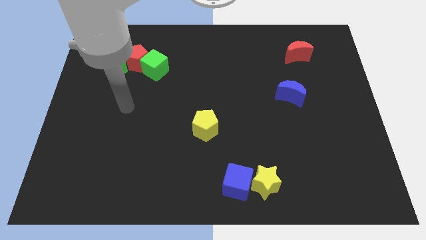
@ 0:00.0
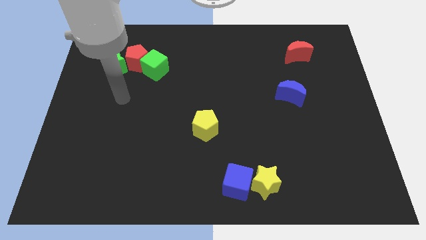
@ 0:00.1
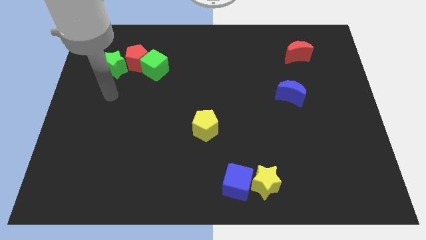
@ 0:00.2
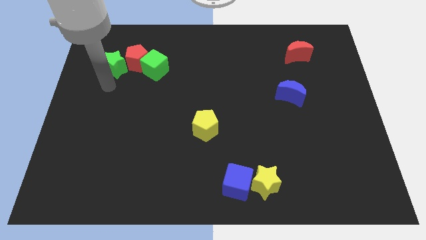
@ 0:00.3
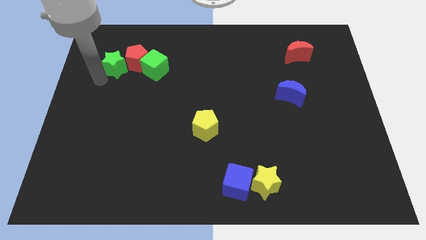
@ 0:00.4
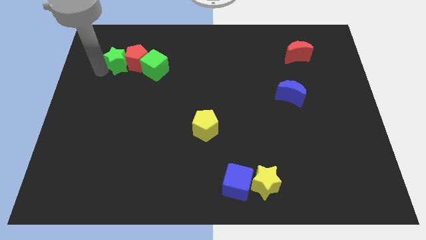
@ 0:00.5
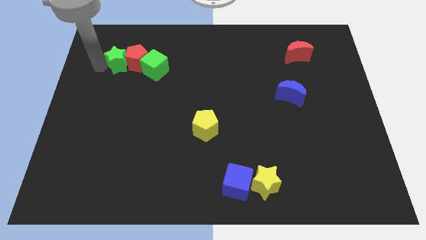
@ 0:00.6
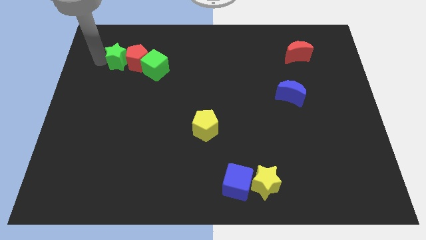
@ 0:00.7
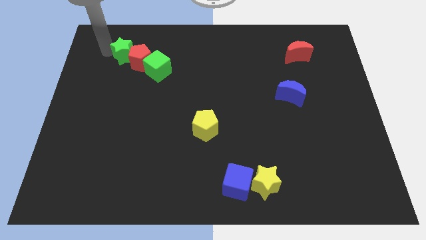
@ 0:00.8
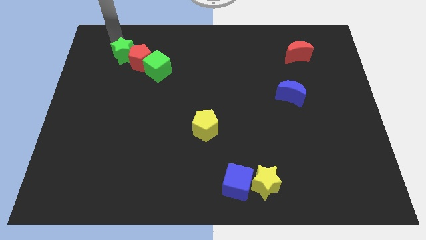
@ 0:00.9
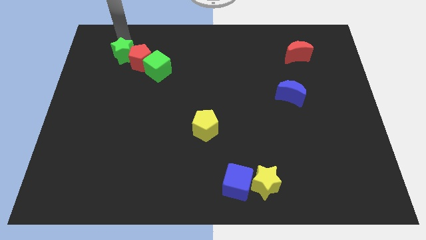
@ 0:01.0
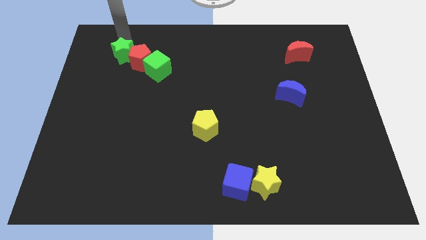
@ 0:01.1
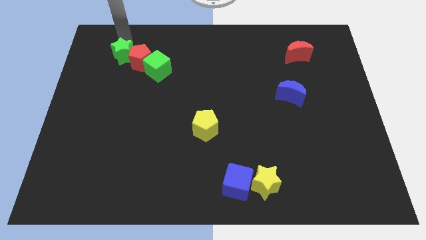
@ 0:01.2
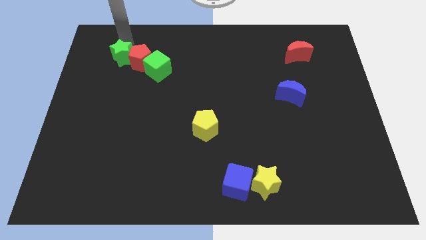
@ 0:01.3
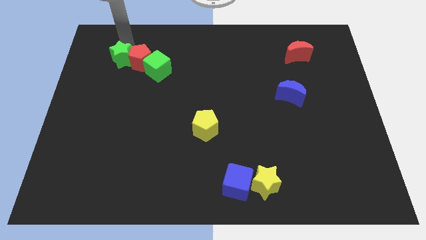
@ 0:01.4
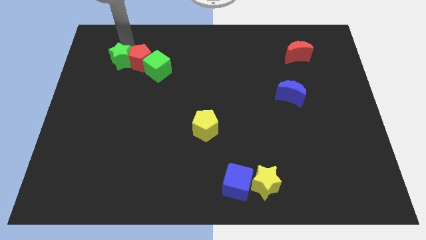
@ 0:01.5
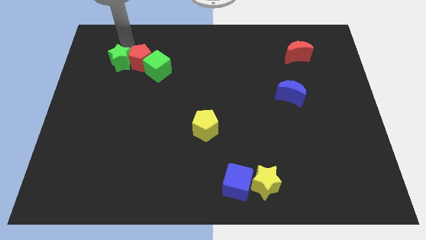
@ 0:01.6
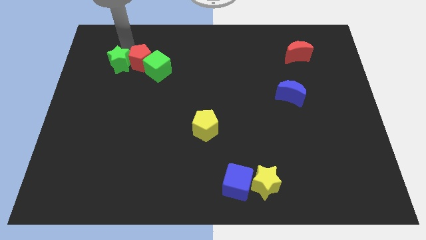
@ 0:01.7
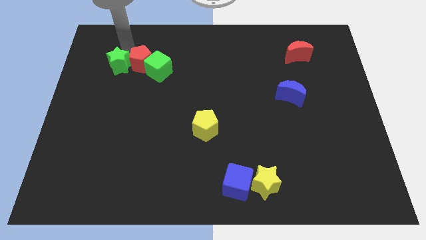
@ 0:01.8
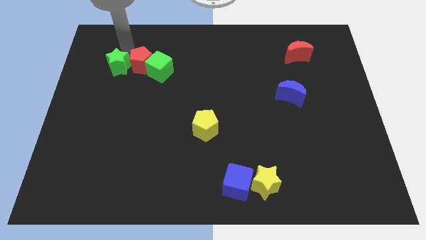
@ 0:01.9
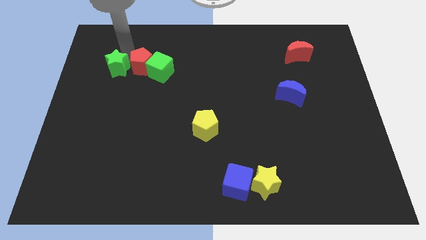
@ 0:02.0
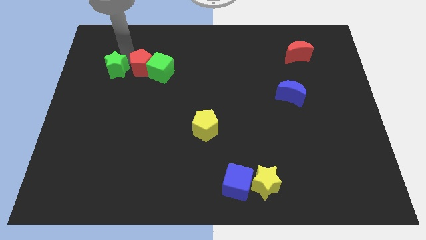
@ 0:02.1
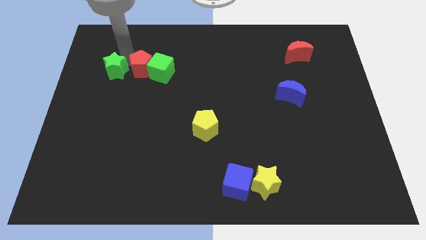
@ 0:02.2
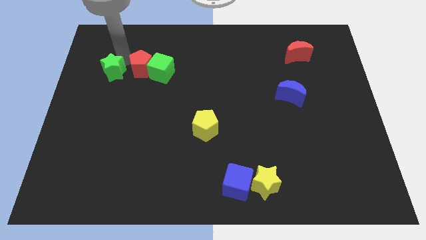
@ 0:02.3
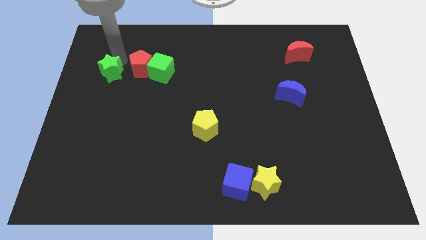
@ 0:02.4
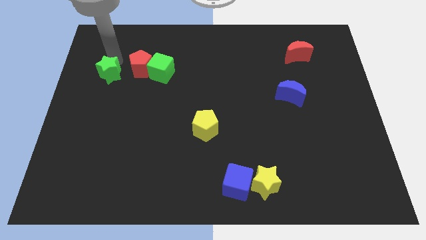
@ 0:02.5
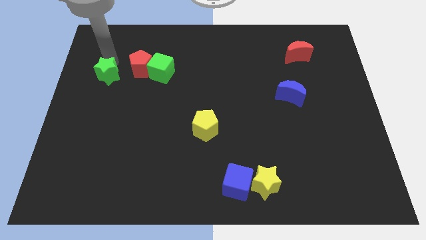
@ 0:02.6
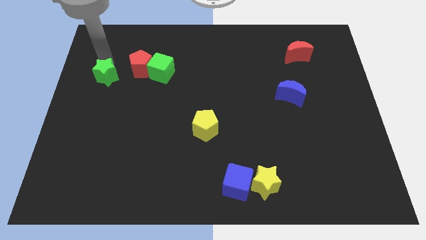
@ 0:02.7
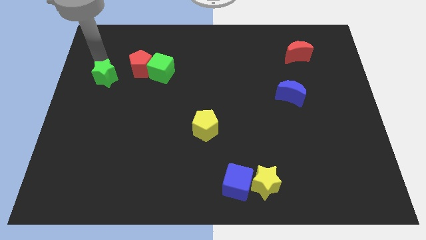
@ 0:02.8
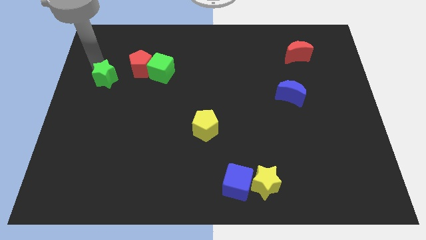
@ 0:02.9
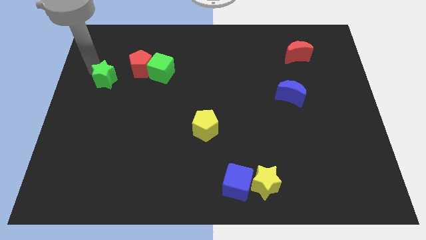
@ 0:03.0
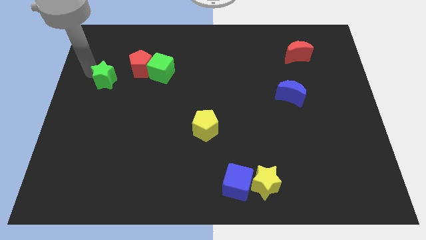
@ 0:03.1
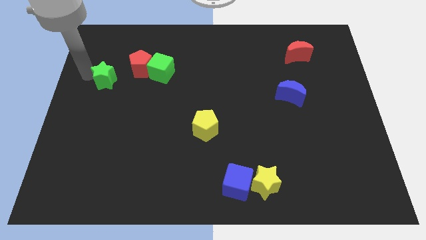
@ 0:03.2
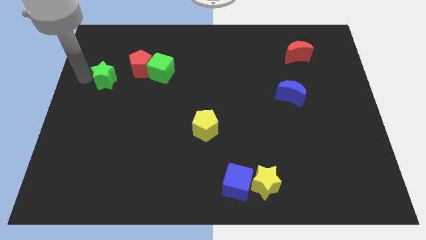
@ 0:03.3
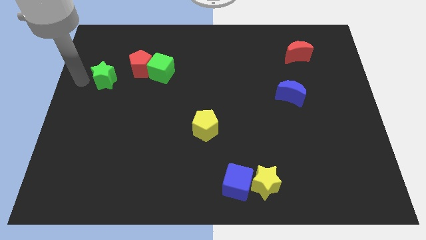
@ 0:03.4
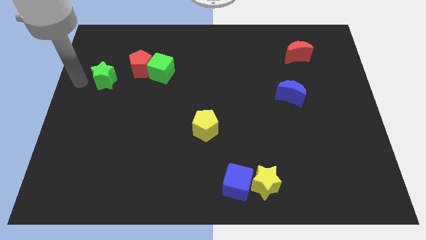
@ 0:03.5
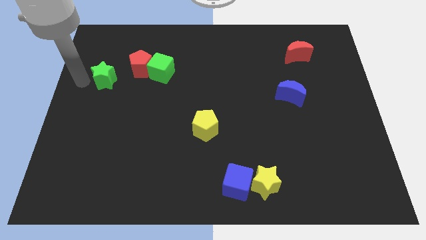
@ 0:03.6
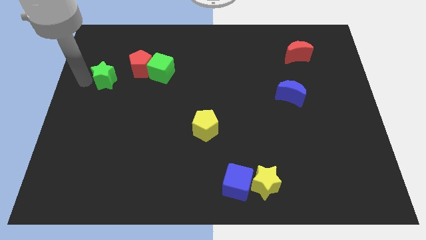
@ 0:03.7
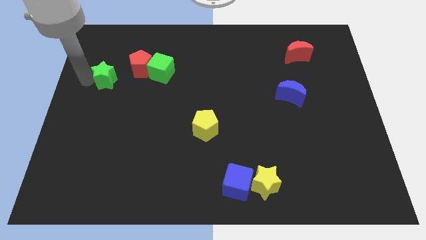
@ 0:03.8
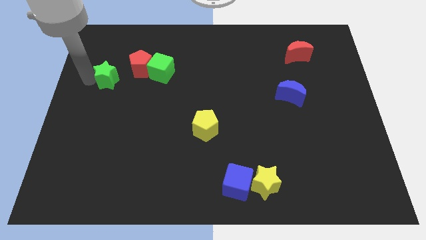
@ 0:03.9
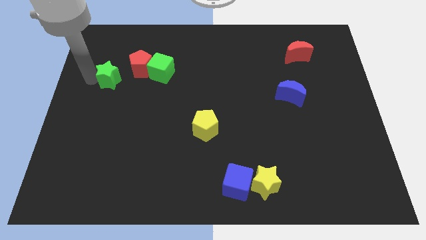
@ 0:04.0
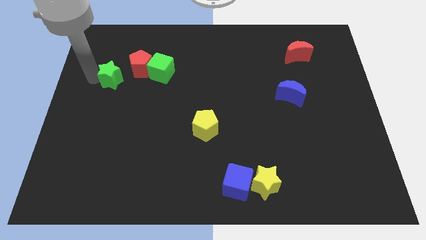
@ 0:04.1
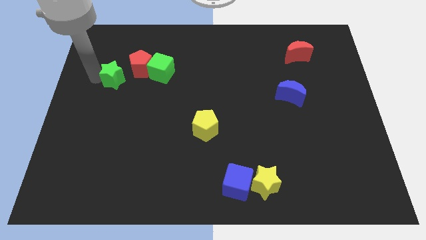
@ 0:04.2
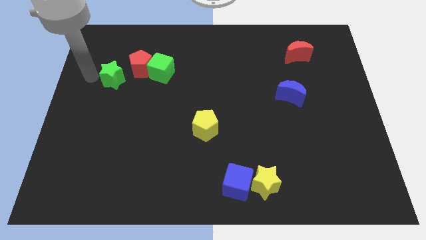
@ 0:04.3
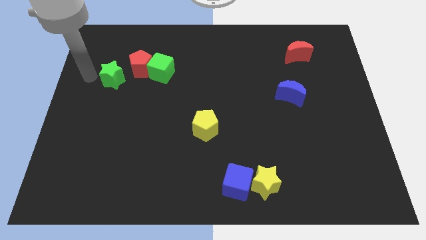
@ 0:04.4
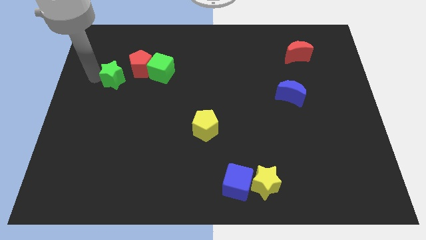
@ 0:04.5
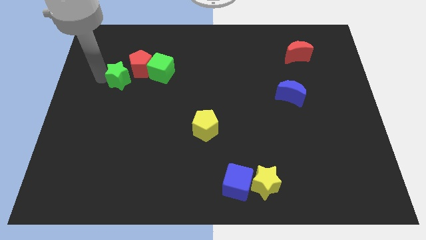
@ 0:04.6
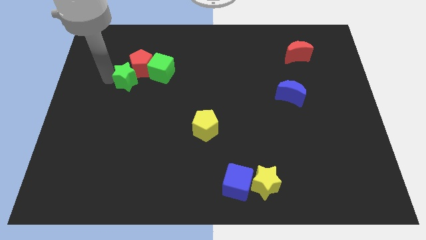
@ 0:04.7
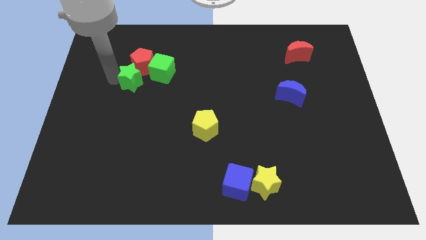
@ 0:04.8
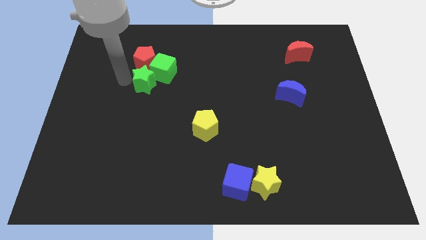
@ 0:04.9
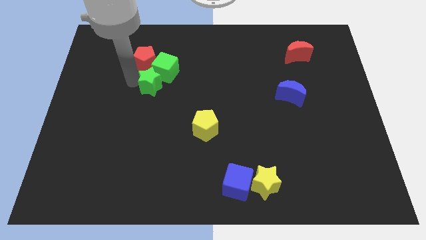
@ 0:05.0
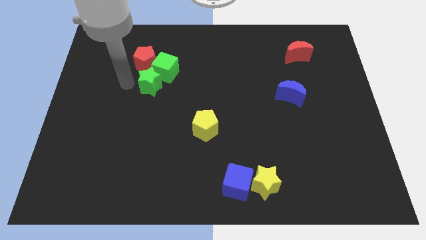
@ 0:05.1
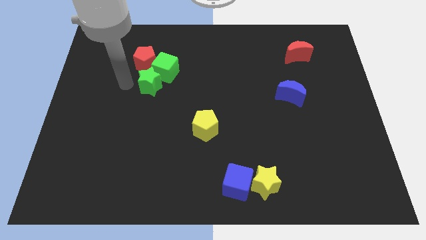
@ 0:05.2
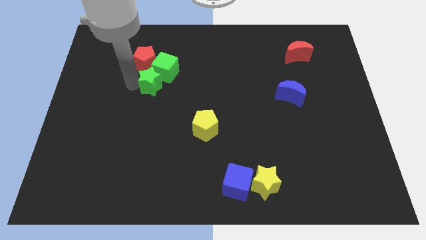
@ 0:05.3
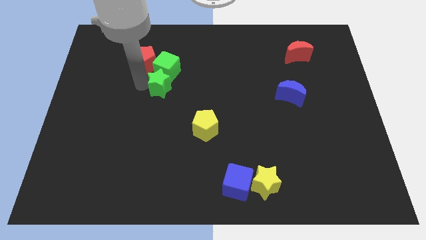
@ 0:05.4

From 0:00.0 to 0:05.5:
move the green star diagonally down and to the right of the green cube

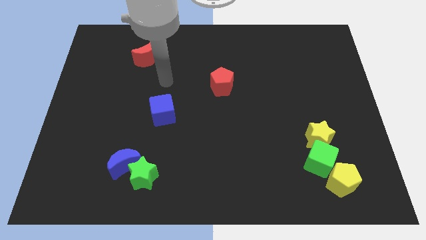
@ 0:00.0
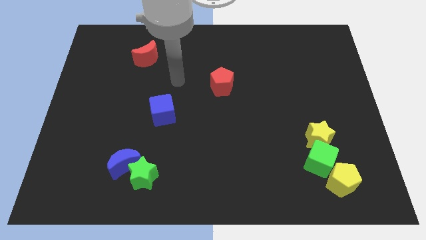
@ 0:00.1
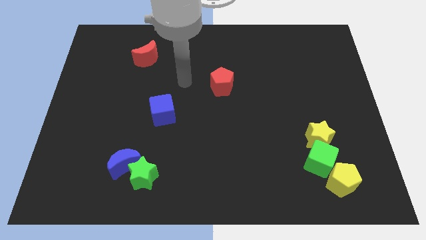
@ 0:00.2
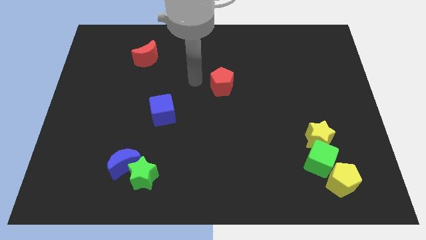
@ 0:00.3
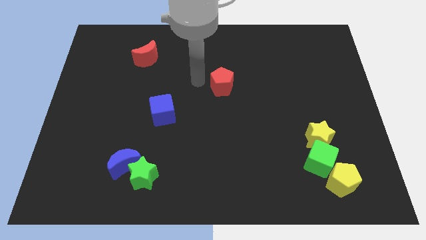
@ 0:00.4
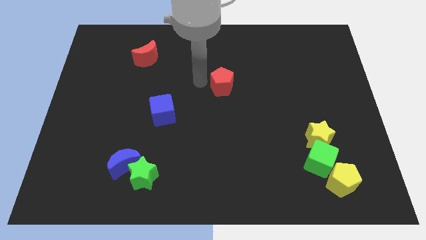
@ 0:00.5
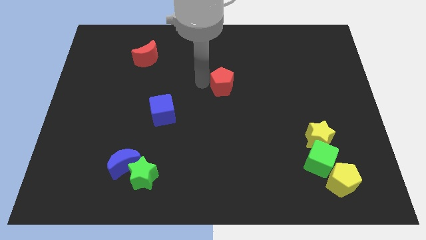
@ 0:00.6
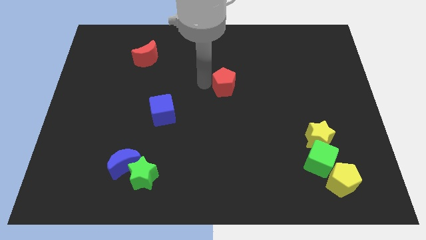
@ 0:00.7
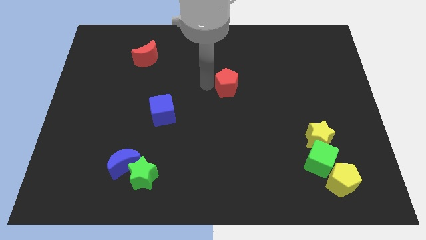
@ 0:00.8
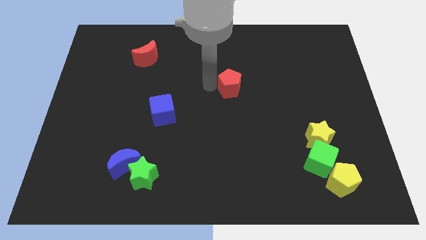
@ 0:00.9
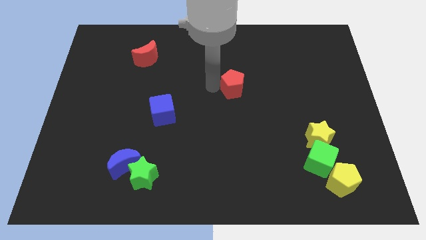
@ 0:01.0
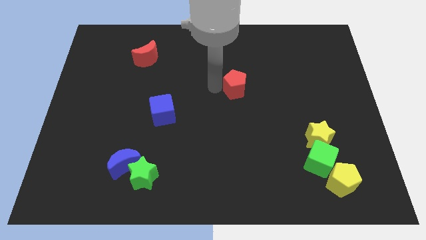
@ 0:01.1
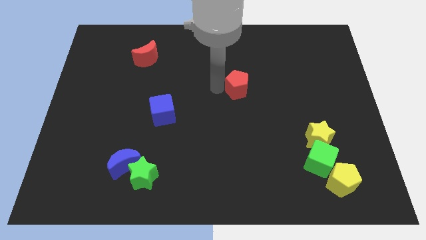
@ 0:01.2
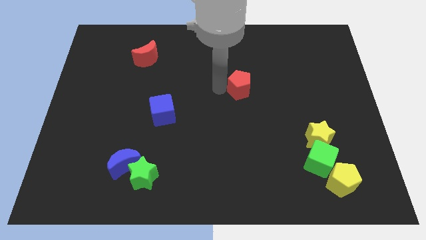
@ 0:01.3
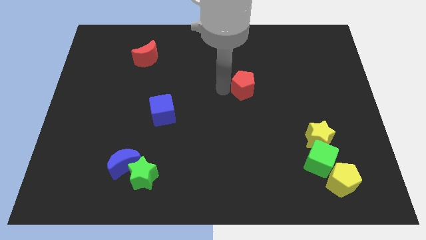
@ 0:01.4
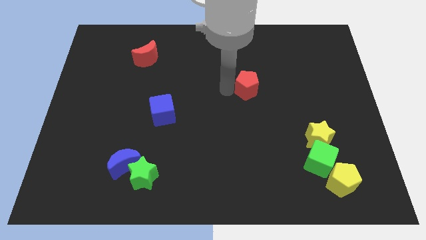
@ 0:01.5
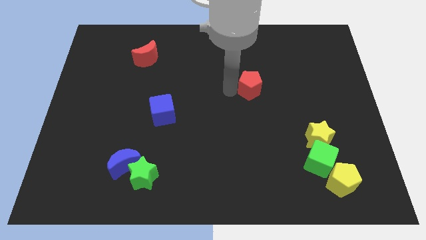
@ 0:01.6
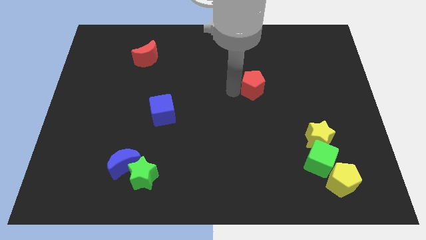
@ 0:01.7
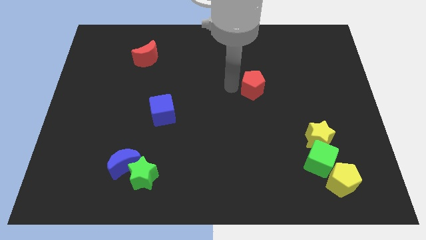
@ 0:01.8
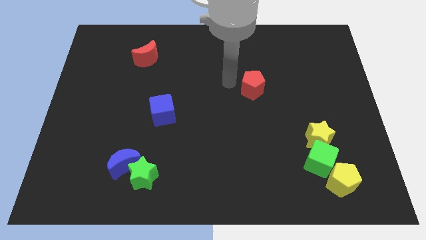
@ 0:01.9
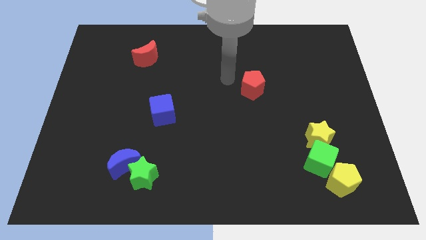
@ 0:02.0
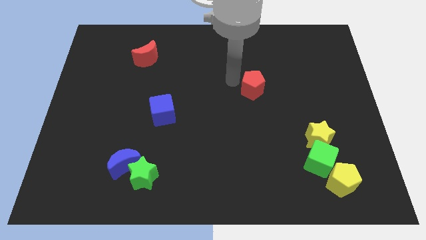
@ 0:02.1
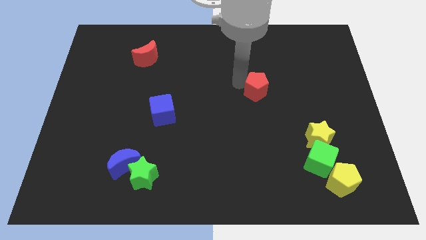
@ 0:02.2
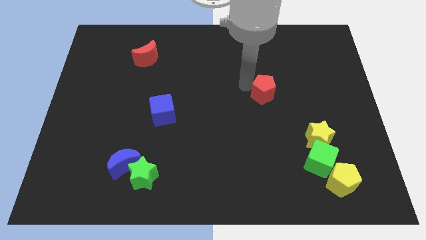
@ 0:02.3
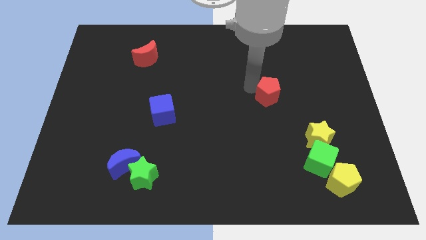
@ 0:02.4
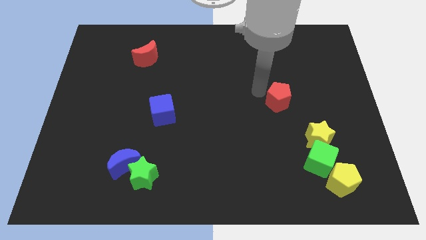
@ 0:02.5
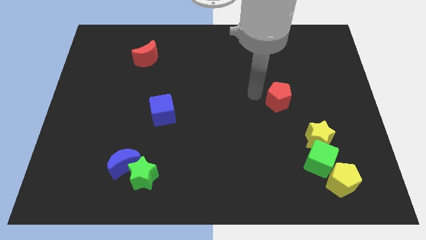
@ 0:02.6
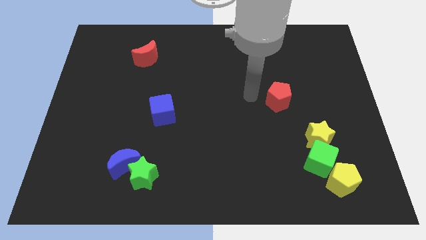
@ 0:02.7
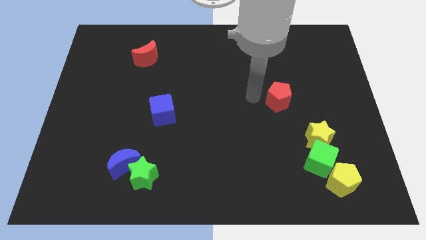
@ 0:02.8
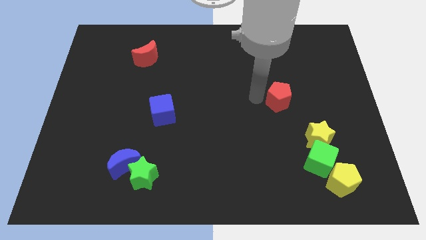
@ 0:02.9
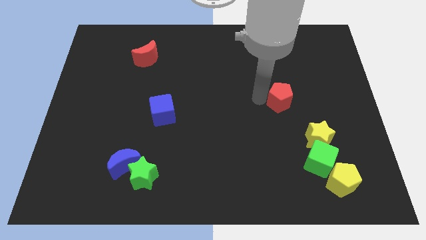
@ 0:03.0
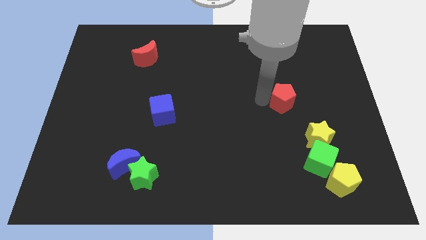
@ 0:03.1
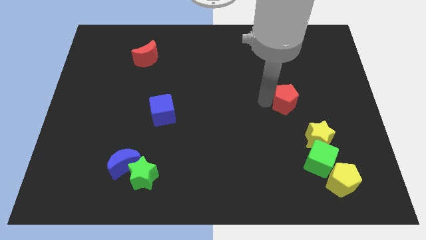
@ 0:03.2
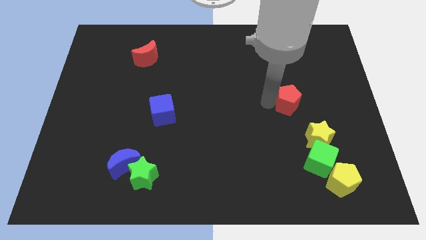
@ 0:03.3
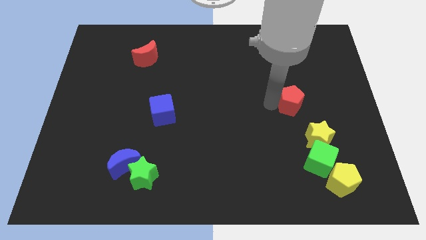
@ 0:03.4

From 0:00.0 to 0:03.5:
push the red pentagon to the top of the yellow star
